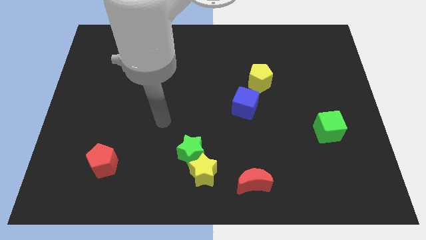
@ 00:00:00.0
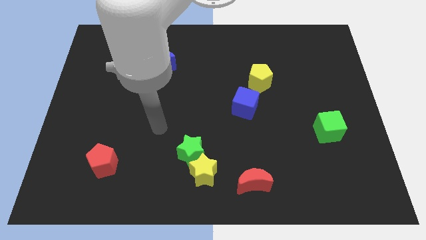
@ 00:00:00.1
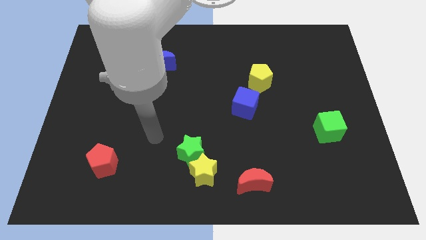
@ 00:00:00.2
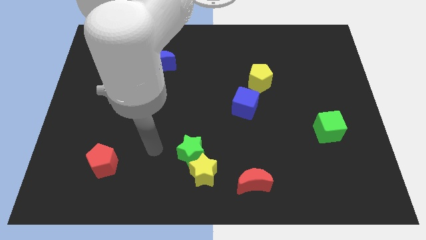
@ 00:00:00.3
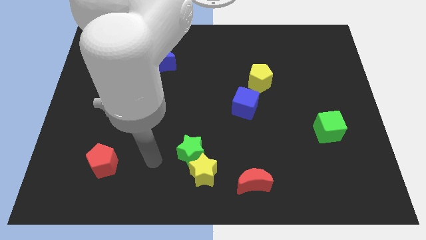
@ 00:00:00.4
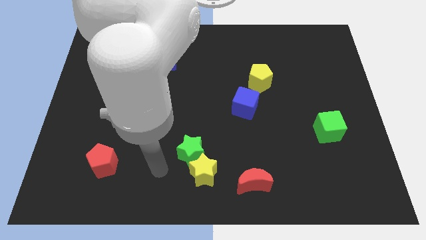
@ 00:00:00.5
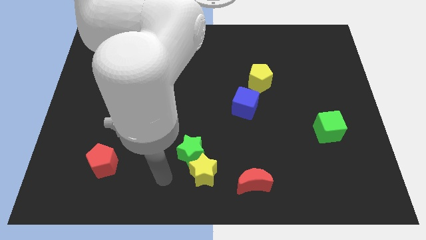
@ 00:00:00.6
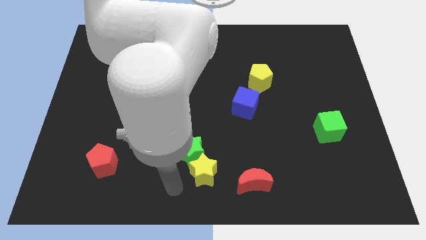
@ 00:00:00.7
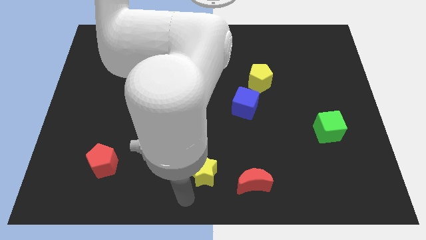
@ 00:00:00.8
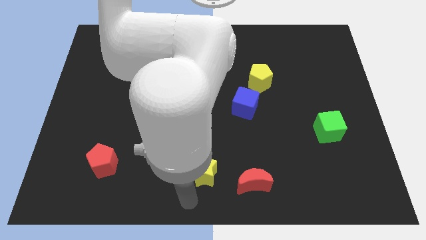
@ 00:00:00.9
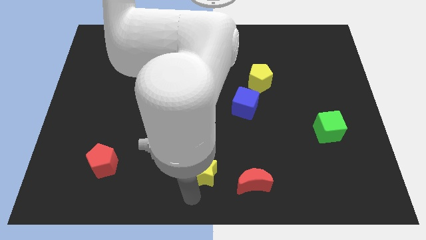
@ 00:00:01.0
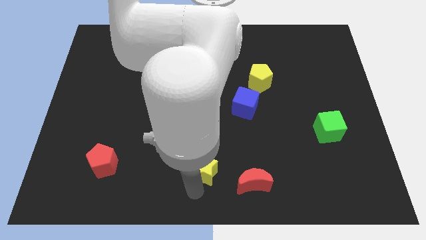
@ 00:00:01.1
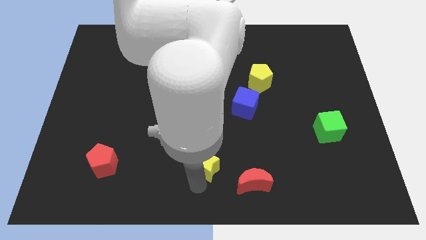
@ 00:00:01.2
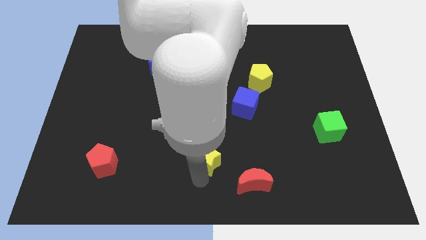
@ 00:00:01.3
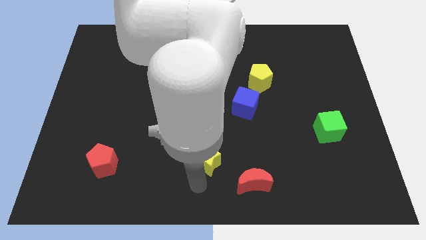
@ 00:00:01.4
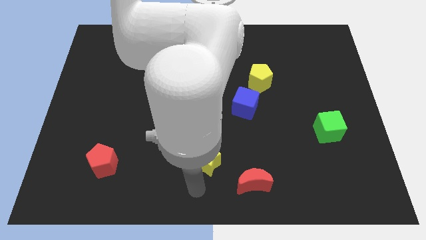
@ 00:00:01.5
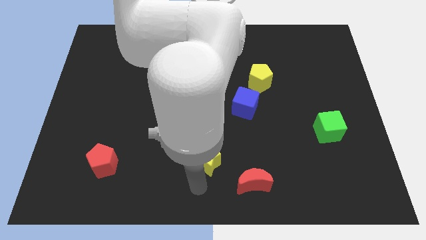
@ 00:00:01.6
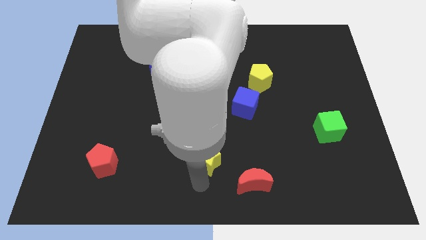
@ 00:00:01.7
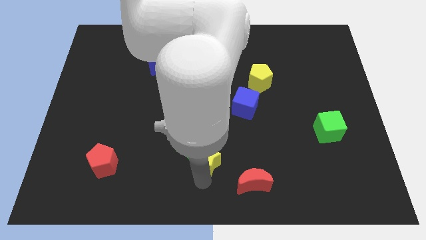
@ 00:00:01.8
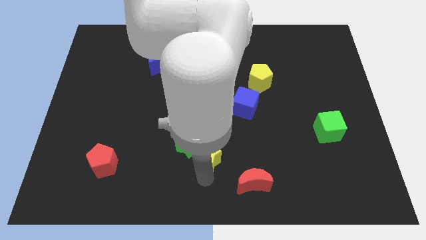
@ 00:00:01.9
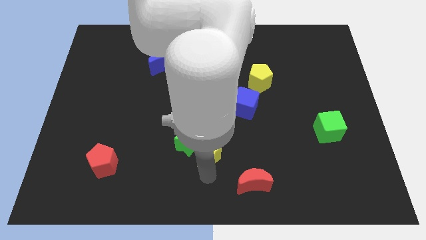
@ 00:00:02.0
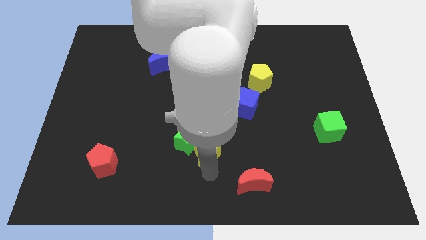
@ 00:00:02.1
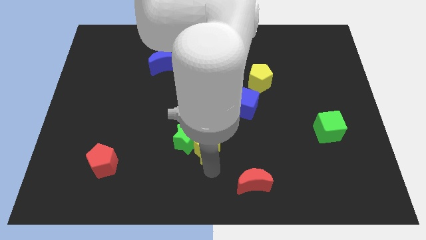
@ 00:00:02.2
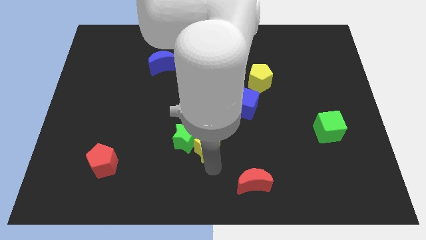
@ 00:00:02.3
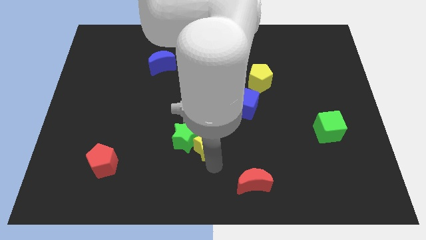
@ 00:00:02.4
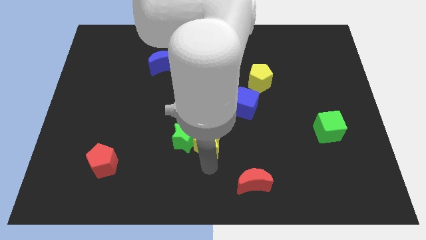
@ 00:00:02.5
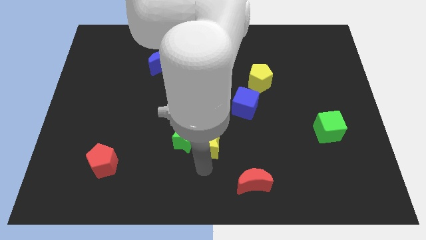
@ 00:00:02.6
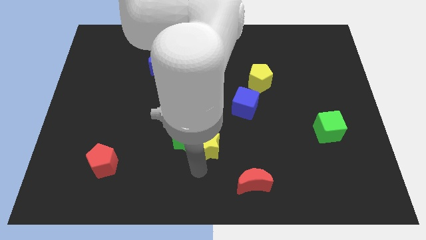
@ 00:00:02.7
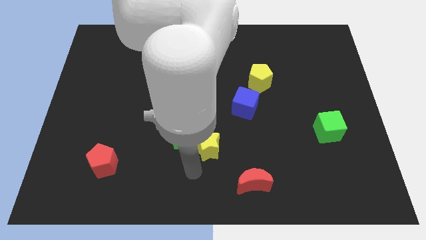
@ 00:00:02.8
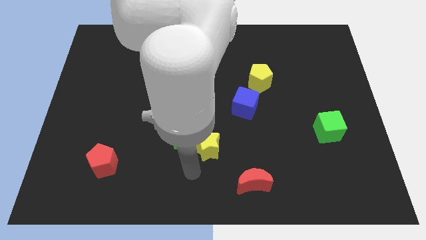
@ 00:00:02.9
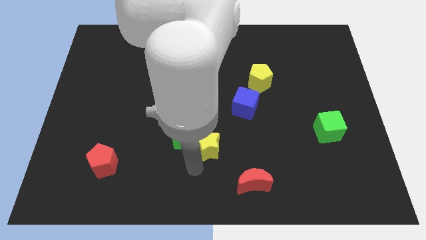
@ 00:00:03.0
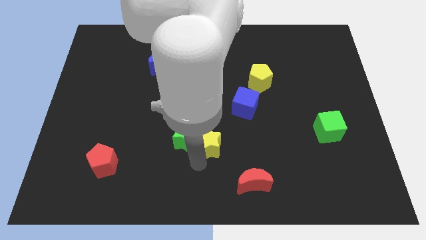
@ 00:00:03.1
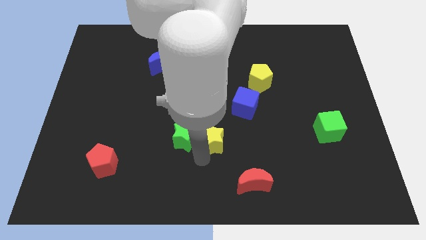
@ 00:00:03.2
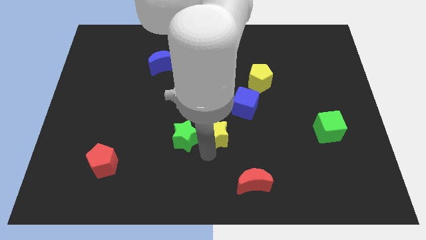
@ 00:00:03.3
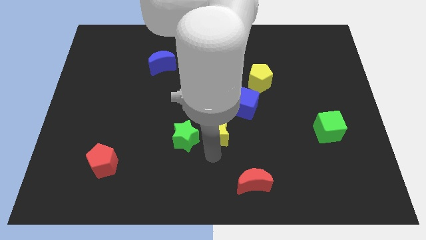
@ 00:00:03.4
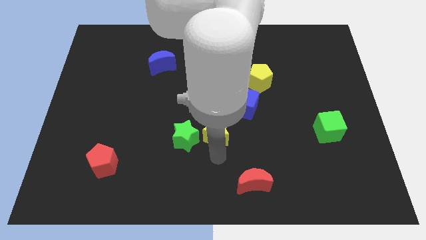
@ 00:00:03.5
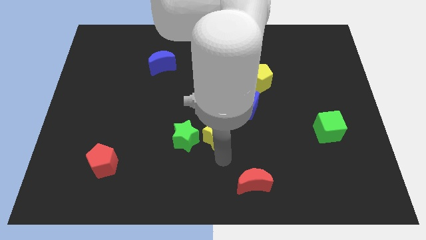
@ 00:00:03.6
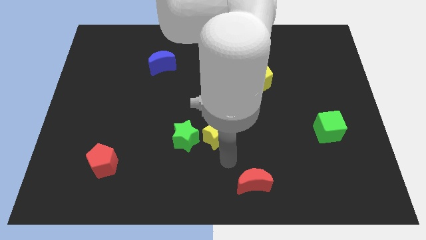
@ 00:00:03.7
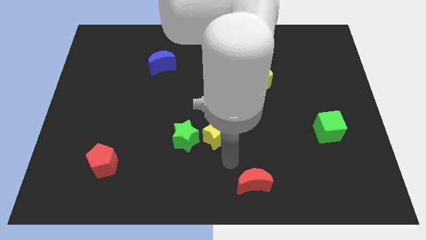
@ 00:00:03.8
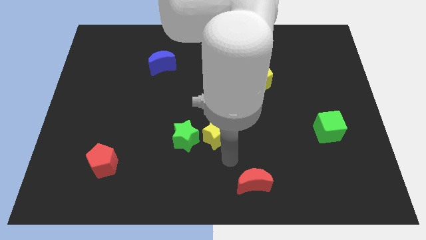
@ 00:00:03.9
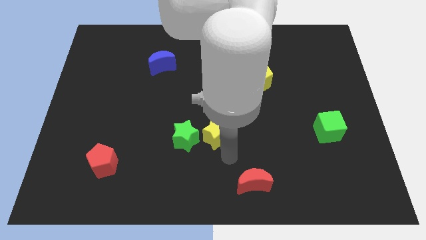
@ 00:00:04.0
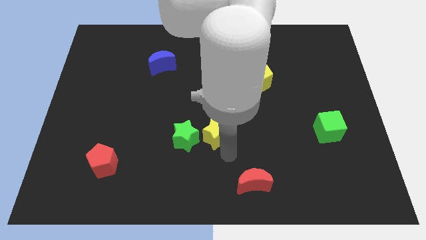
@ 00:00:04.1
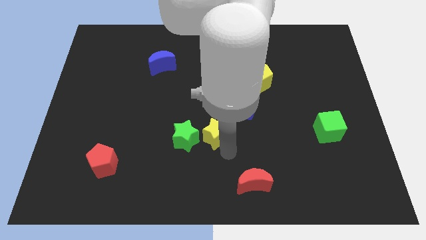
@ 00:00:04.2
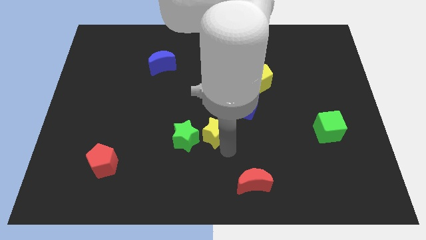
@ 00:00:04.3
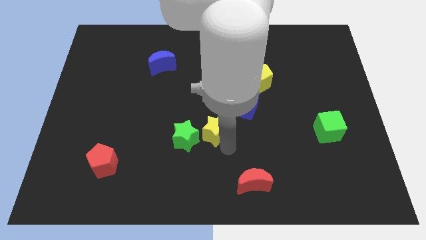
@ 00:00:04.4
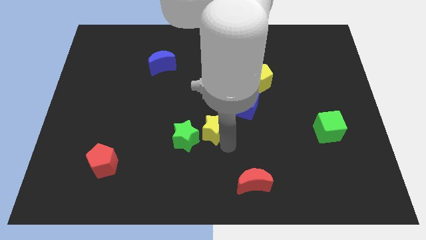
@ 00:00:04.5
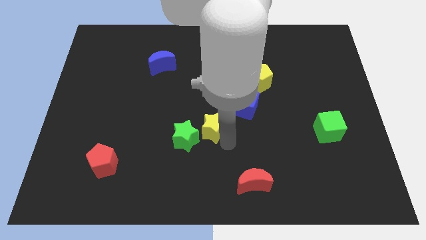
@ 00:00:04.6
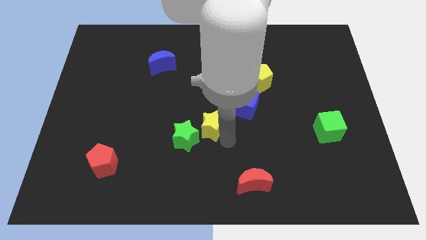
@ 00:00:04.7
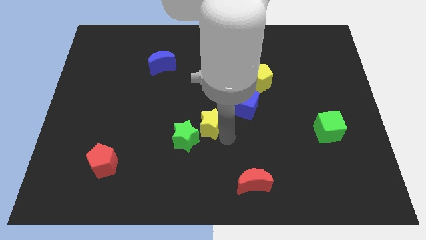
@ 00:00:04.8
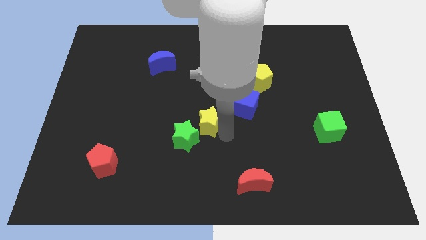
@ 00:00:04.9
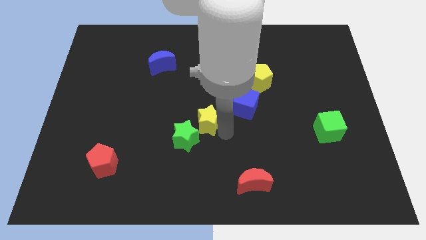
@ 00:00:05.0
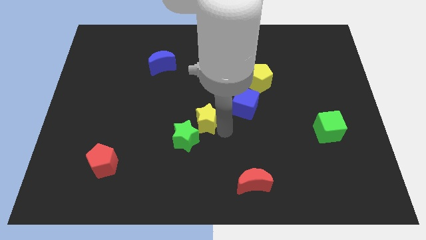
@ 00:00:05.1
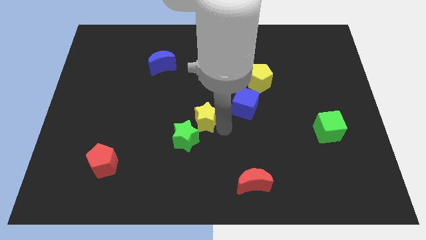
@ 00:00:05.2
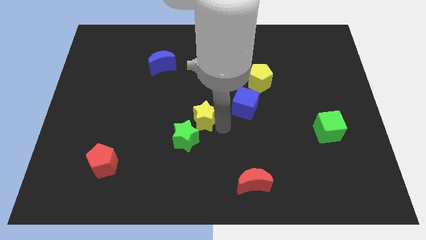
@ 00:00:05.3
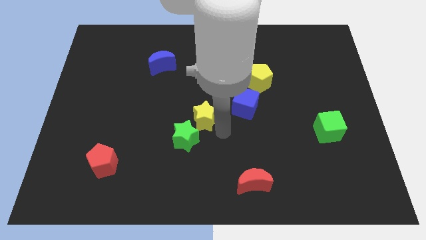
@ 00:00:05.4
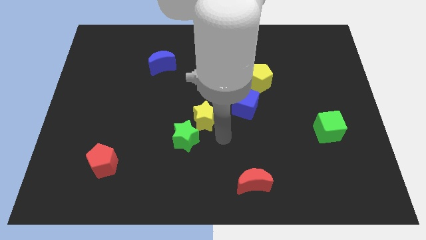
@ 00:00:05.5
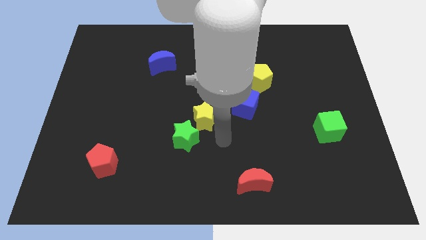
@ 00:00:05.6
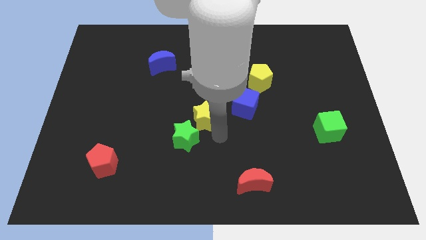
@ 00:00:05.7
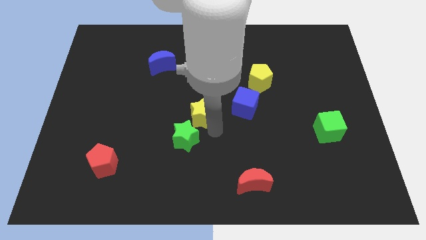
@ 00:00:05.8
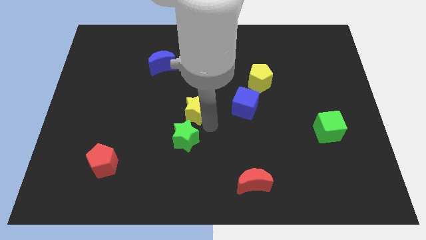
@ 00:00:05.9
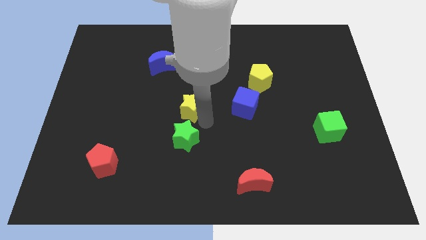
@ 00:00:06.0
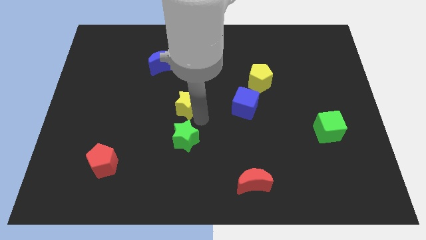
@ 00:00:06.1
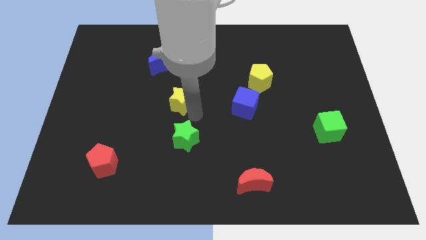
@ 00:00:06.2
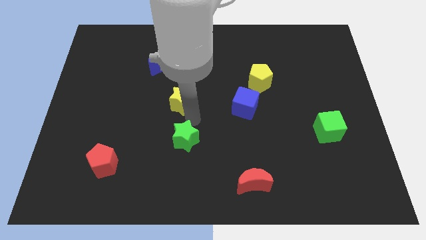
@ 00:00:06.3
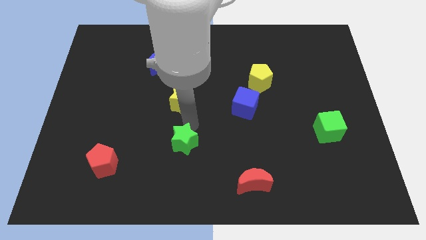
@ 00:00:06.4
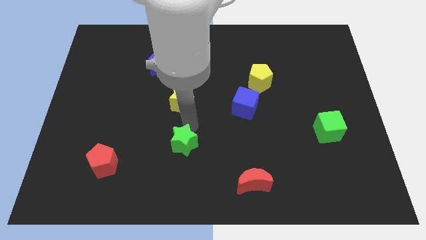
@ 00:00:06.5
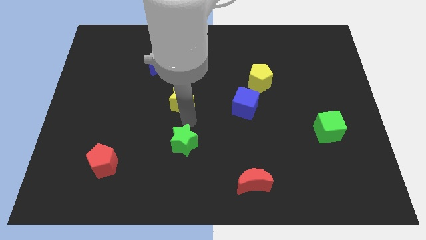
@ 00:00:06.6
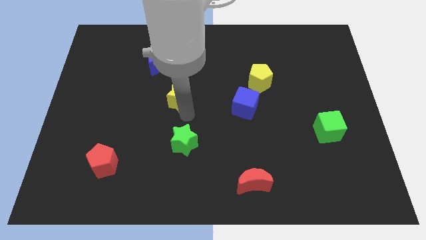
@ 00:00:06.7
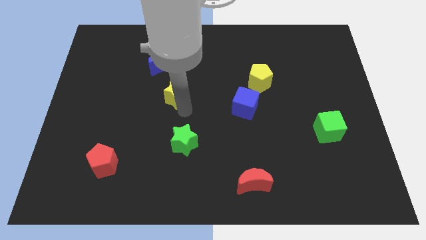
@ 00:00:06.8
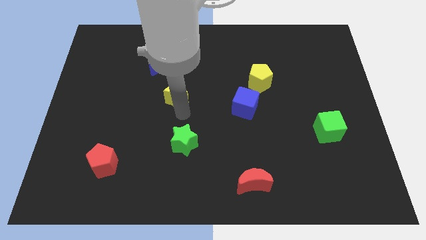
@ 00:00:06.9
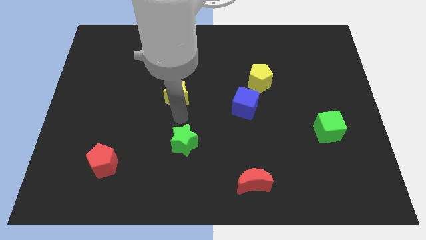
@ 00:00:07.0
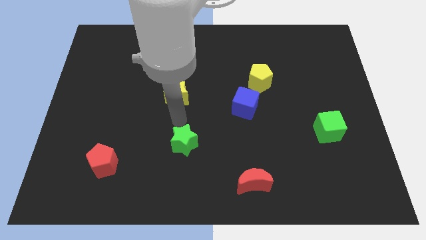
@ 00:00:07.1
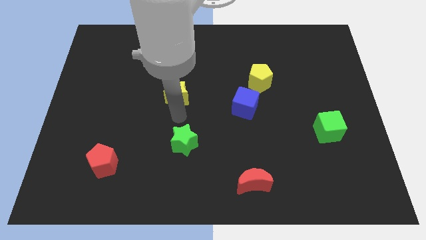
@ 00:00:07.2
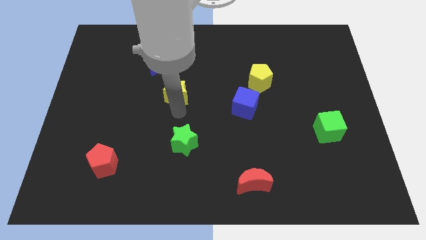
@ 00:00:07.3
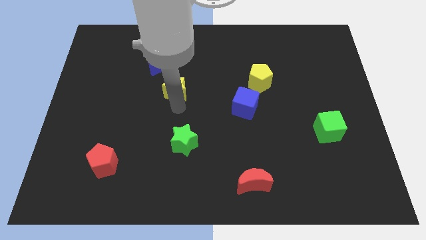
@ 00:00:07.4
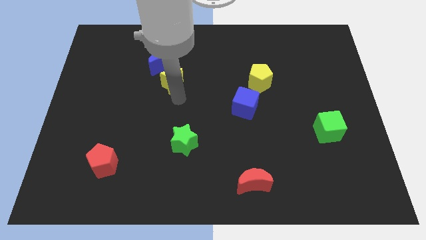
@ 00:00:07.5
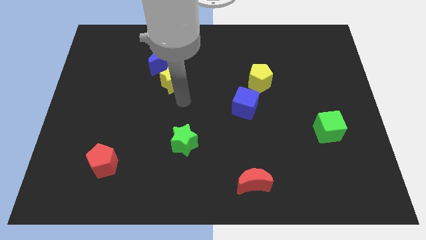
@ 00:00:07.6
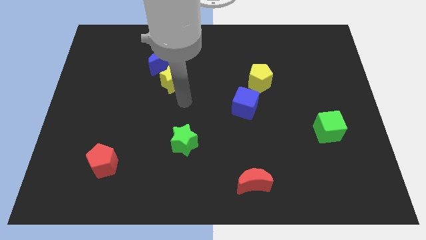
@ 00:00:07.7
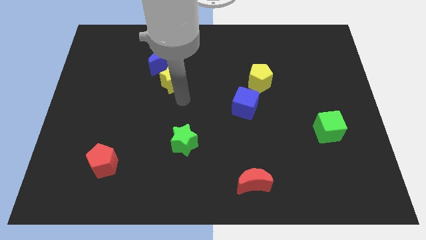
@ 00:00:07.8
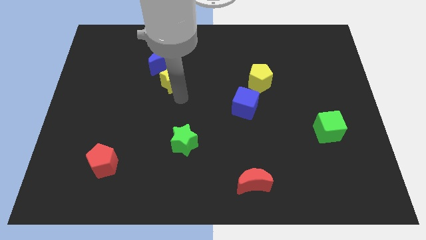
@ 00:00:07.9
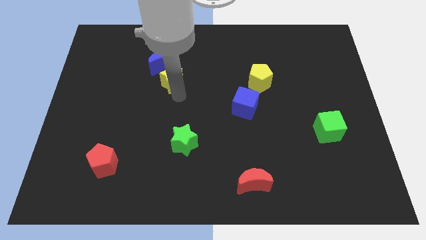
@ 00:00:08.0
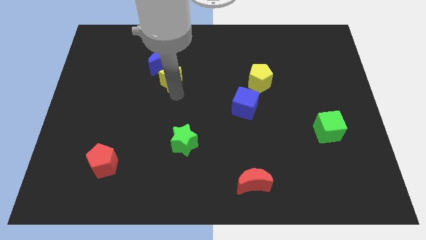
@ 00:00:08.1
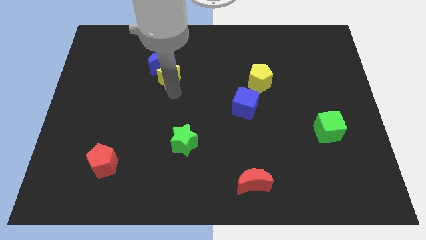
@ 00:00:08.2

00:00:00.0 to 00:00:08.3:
put the yellow star to the blue moon
